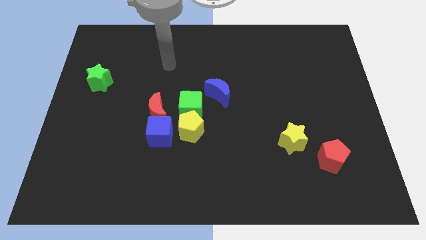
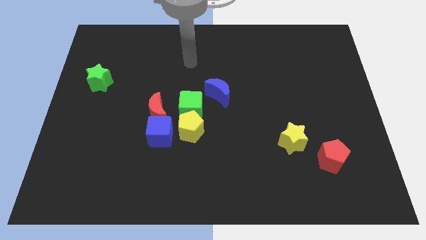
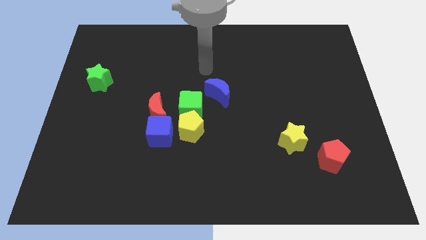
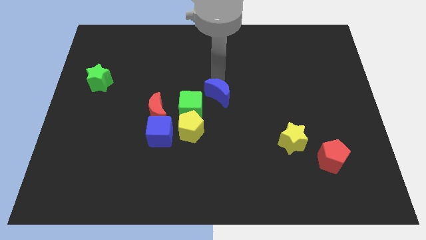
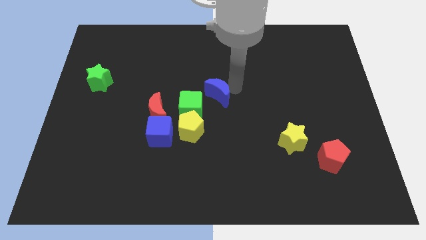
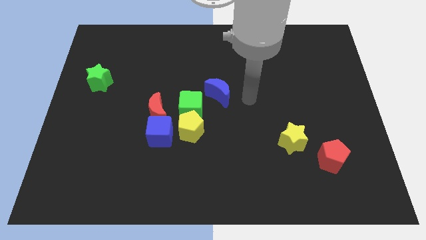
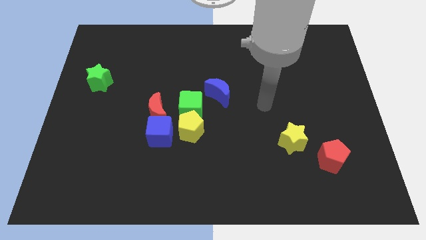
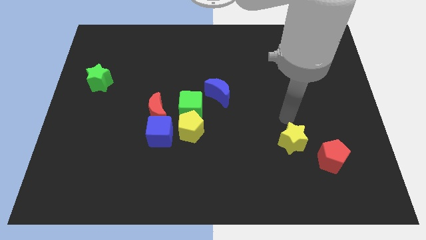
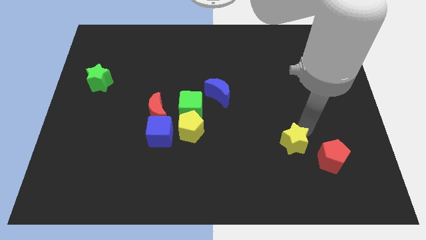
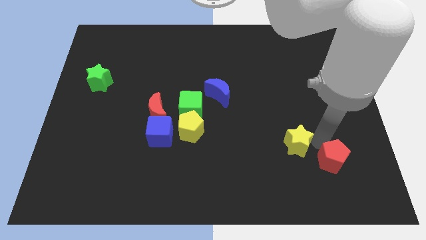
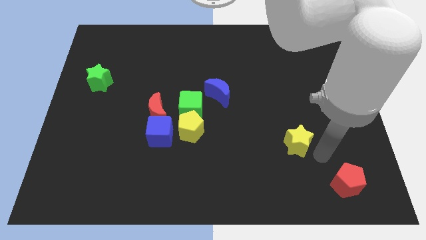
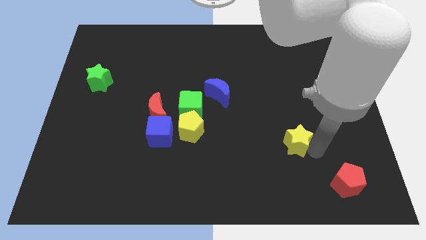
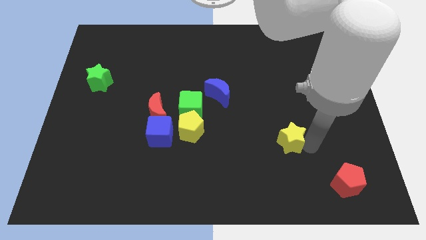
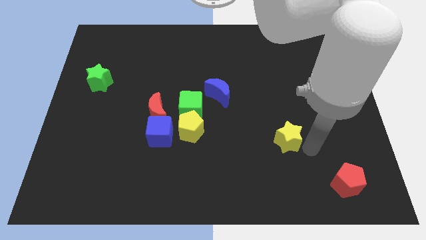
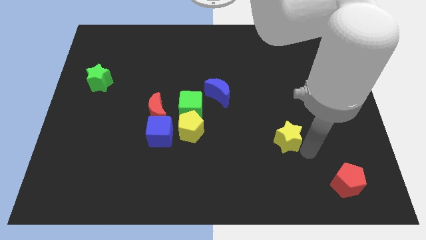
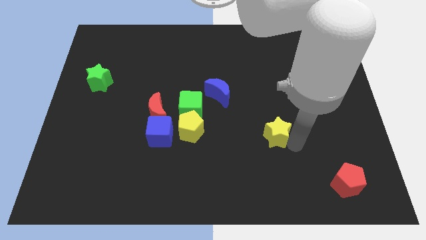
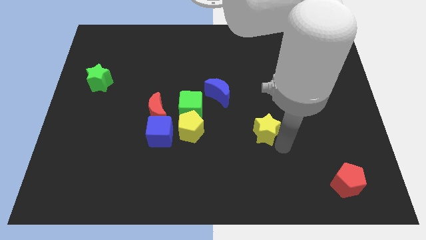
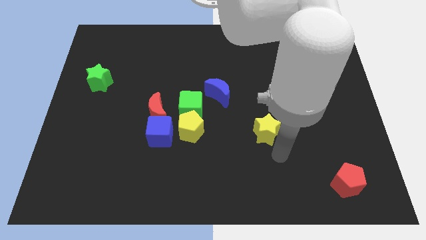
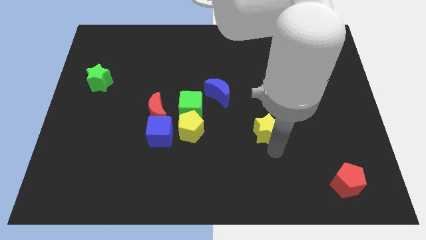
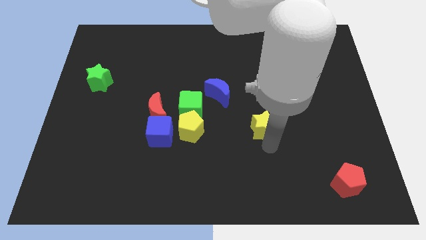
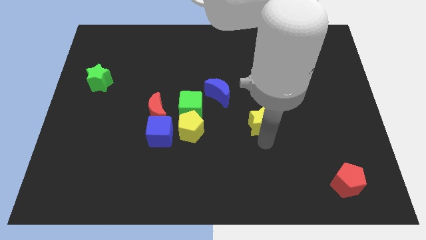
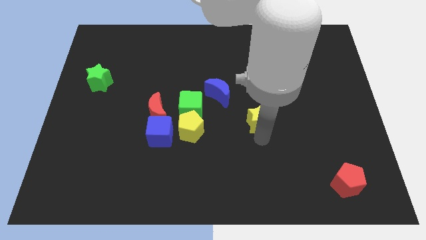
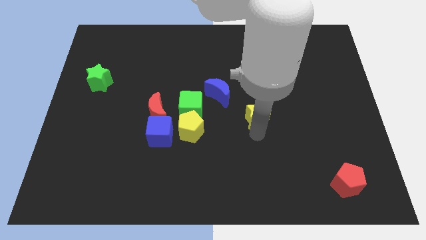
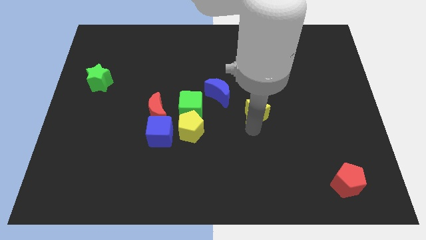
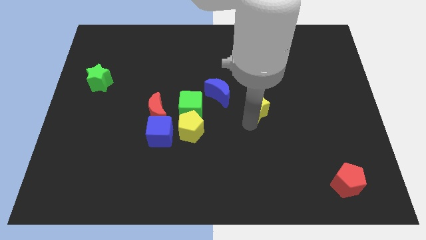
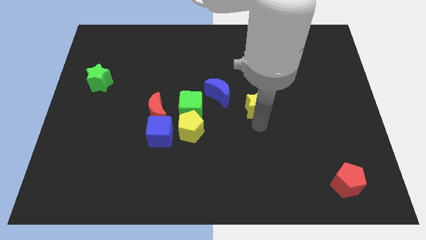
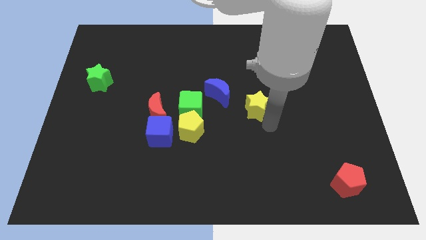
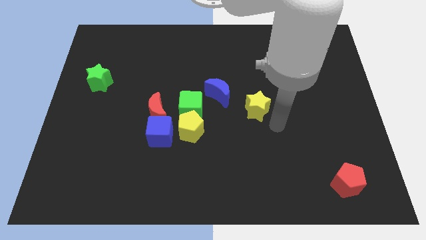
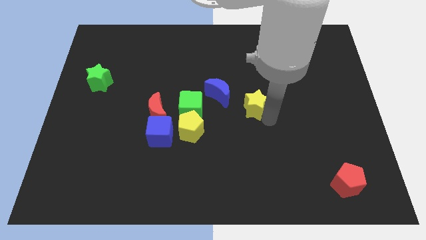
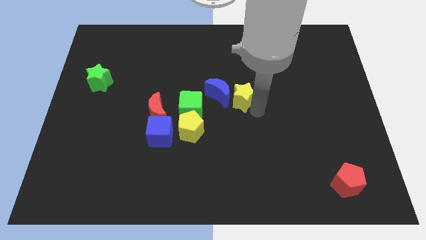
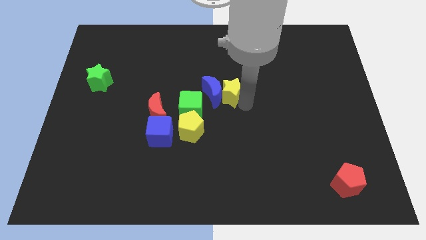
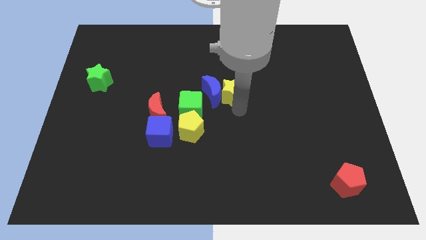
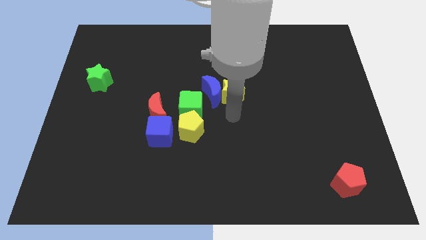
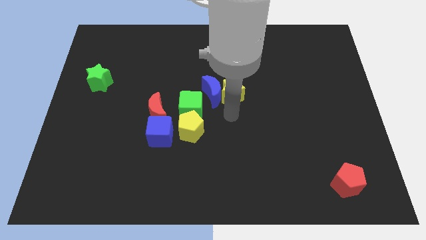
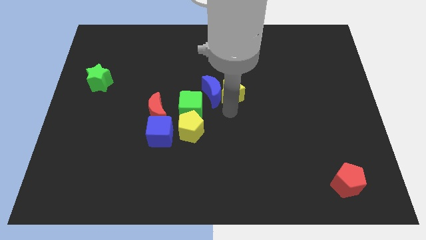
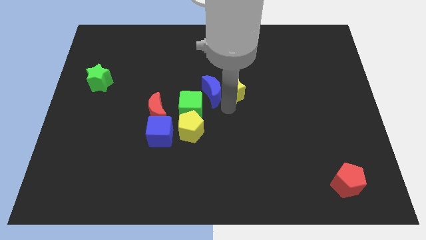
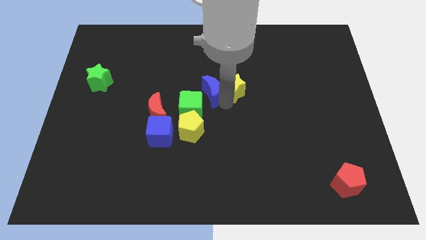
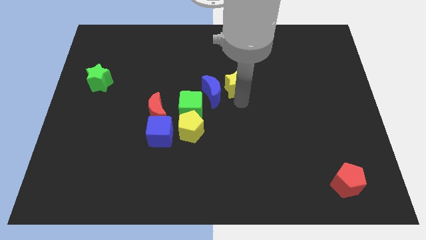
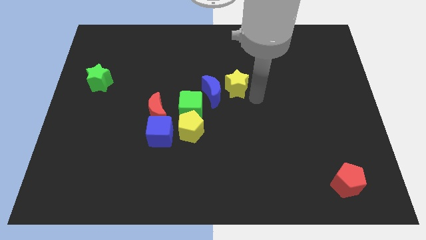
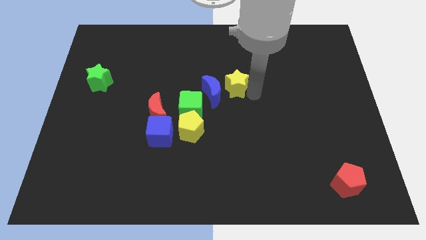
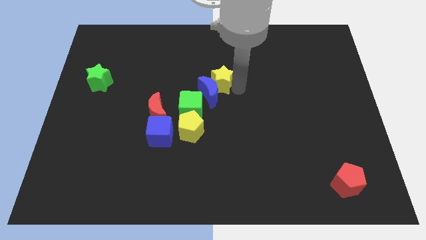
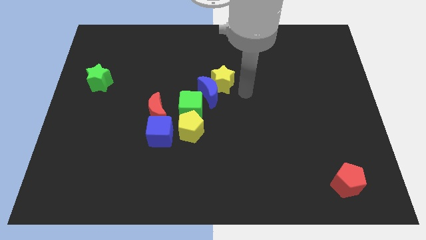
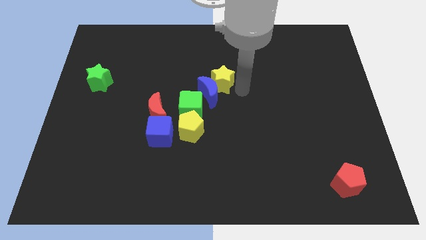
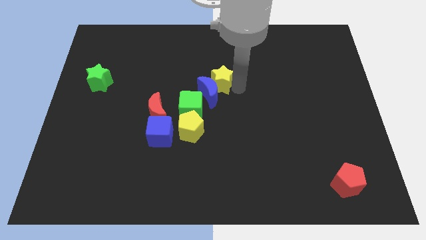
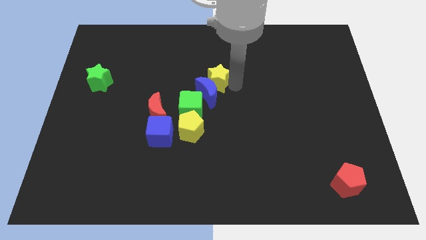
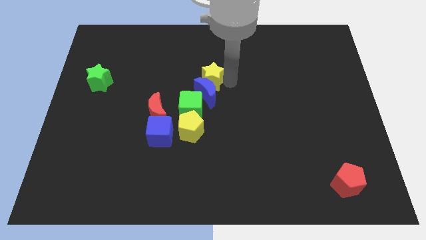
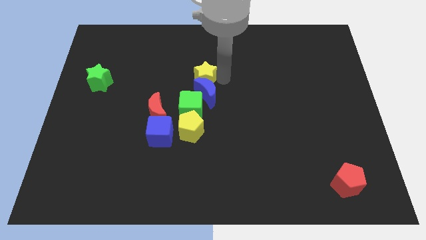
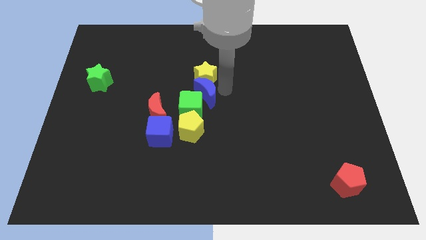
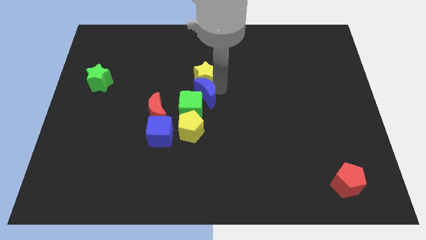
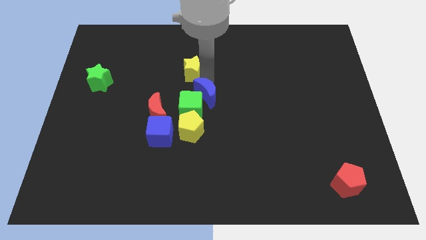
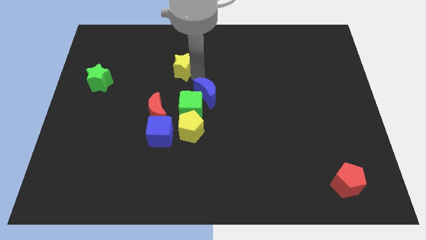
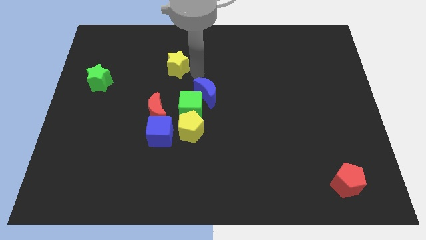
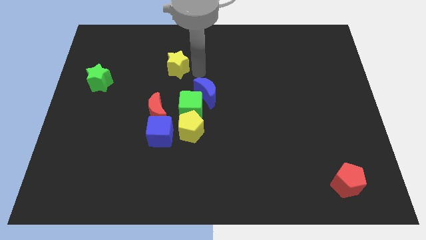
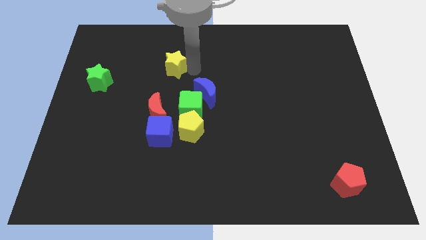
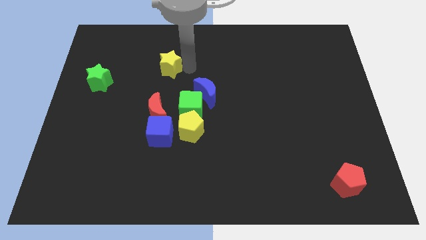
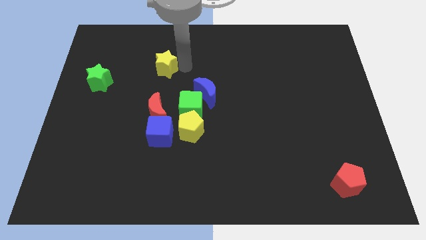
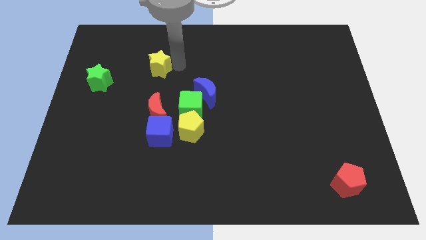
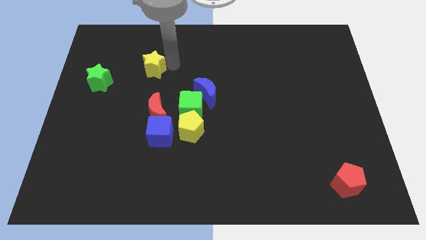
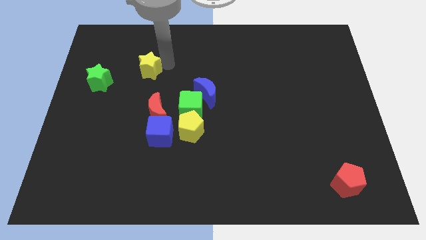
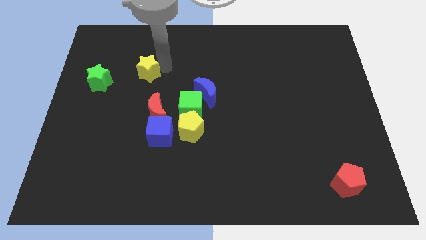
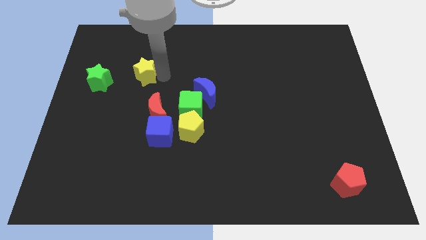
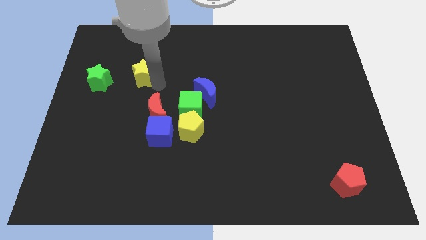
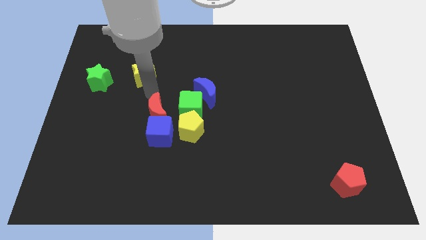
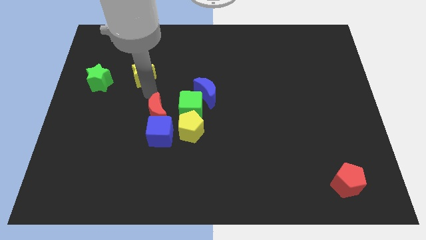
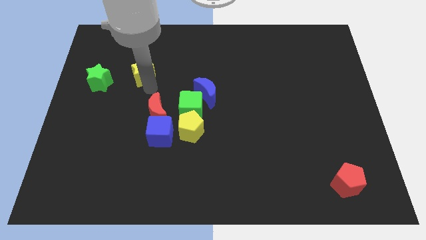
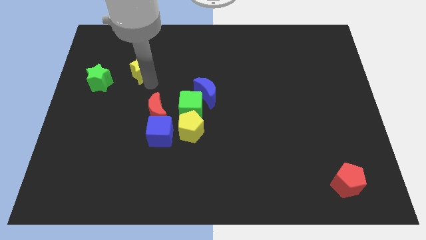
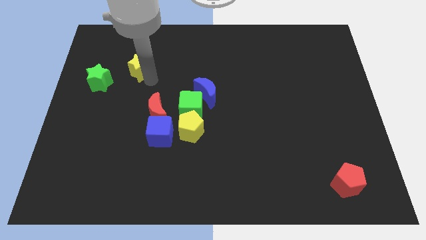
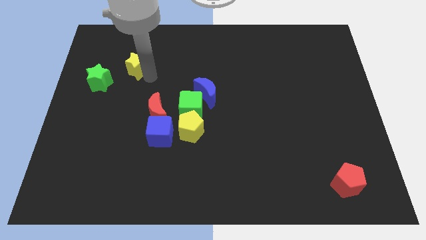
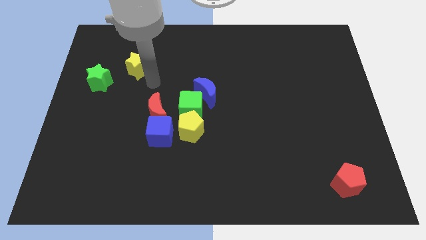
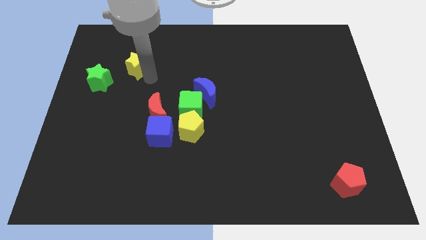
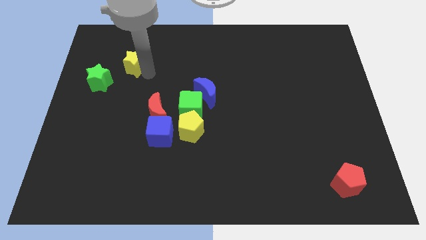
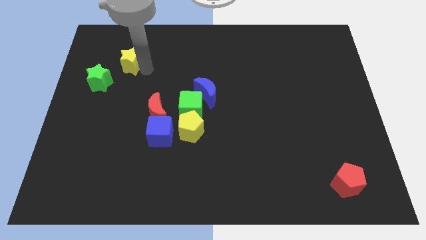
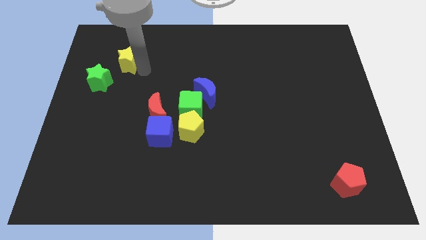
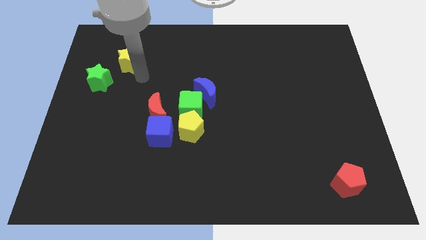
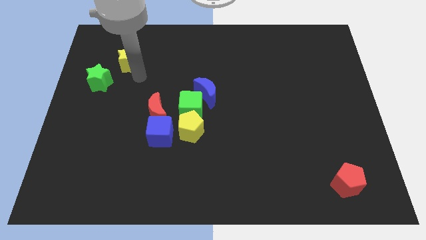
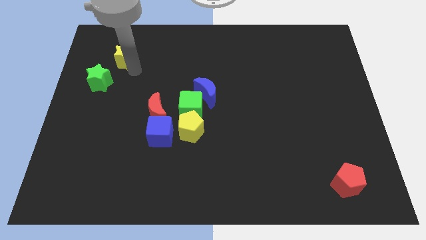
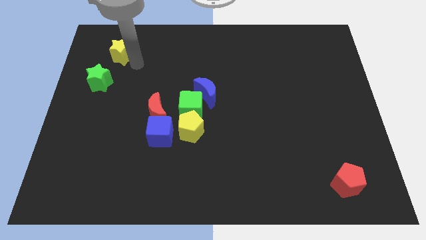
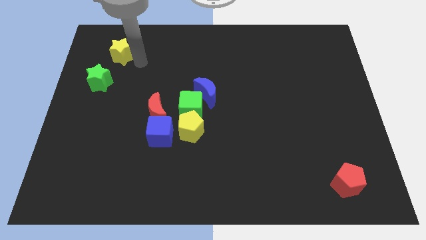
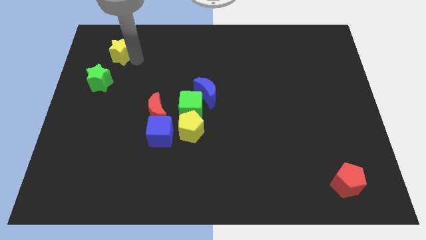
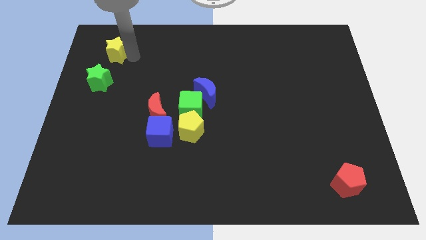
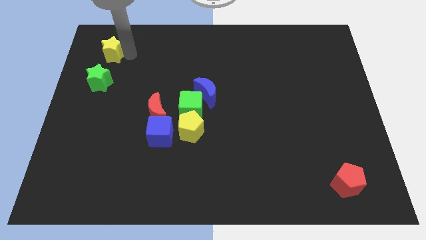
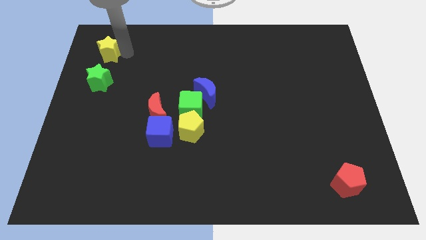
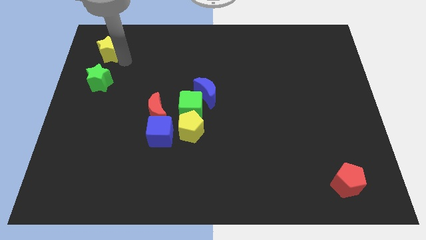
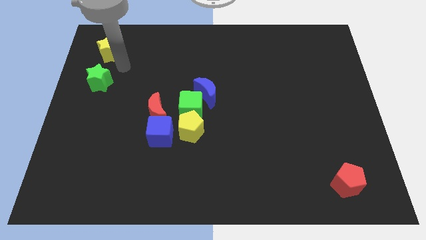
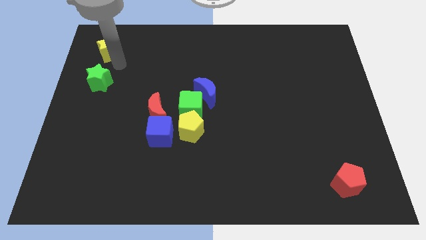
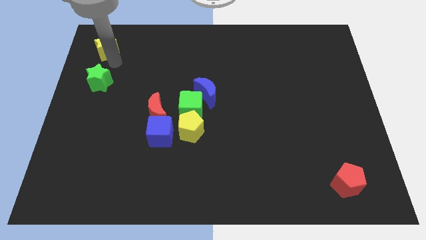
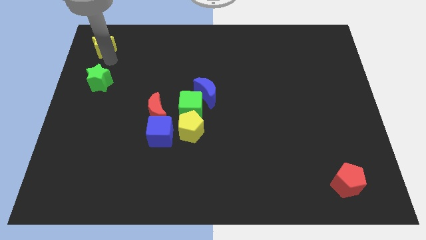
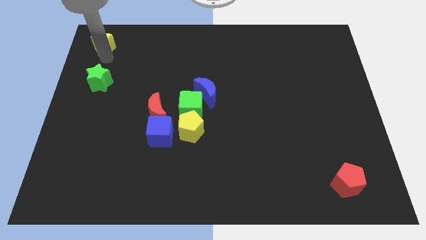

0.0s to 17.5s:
put the yellow star to the upper left corner
